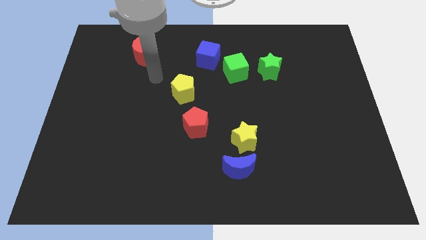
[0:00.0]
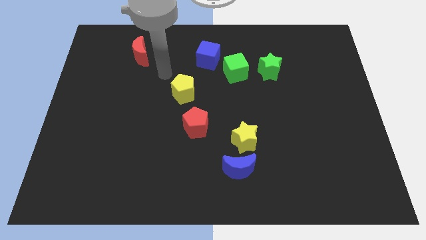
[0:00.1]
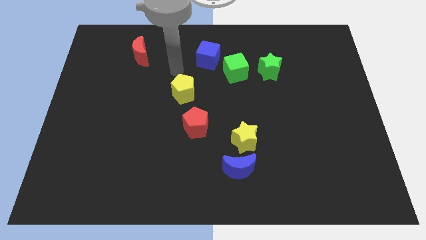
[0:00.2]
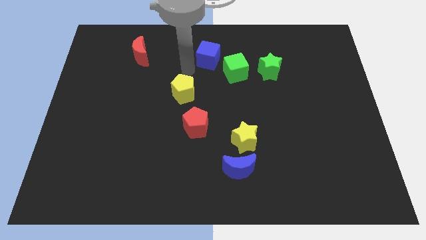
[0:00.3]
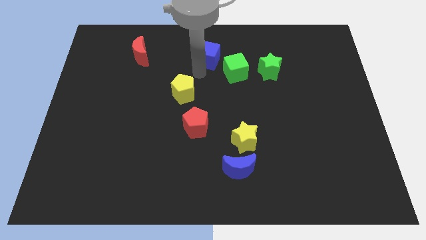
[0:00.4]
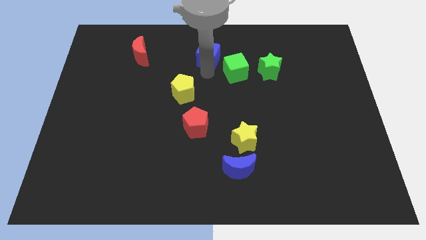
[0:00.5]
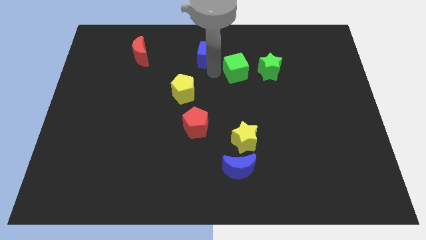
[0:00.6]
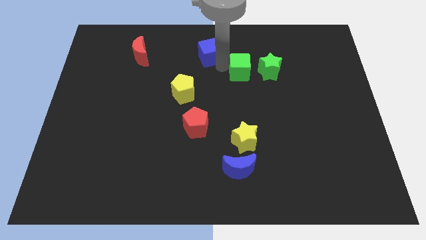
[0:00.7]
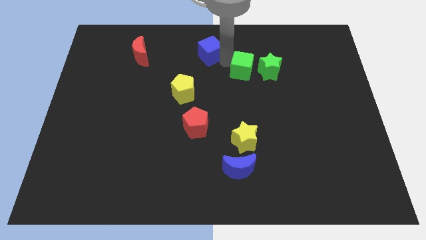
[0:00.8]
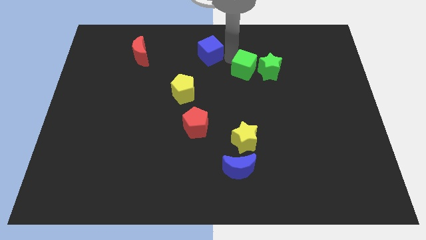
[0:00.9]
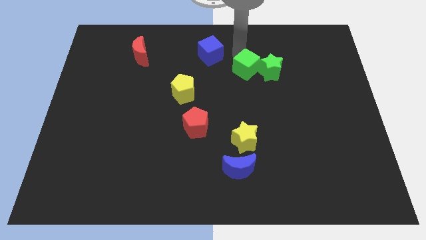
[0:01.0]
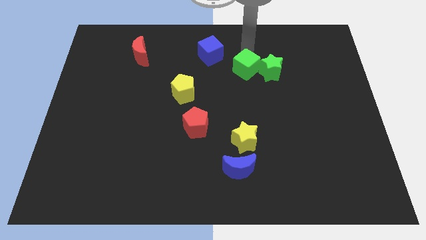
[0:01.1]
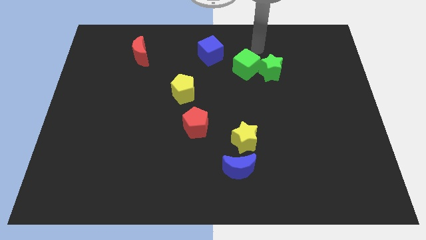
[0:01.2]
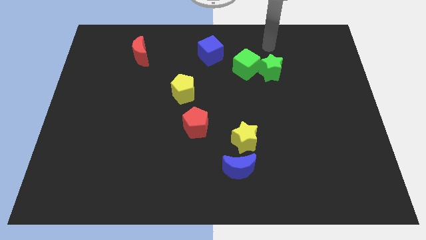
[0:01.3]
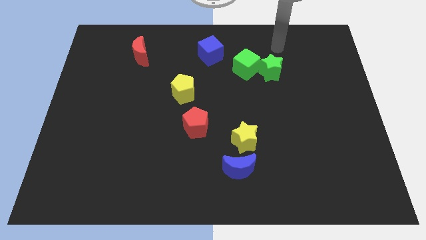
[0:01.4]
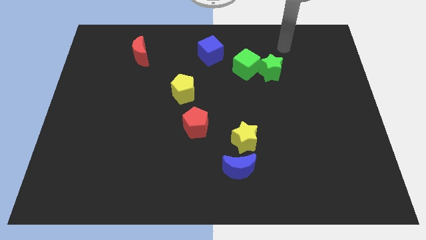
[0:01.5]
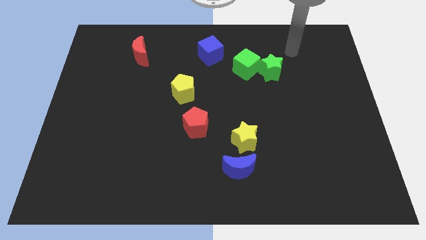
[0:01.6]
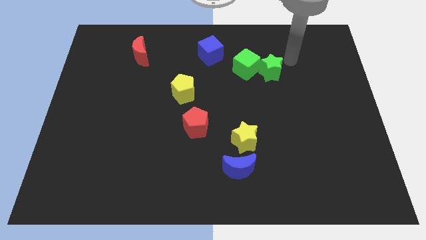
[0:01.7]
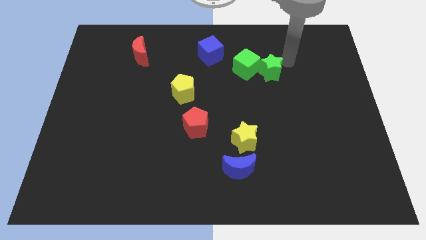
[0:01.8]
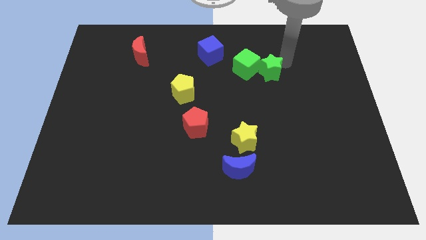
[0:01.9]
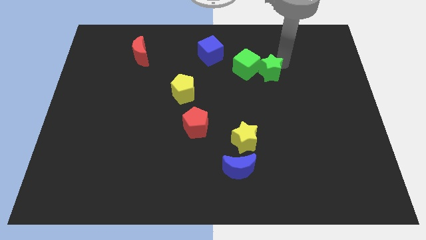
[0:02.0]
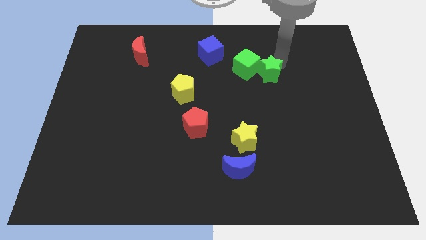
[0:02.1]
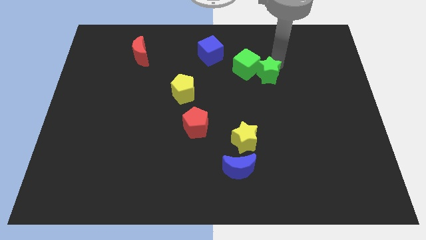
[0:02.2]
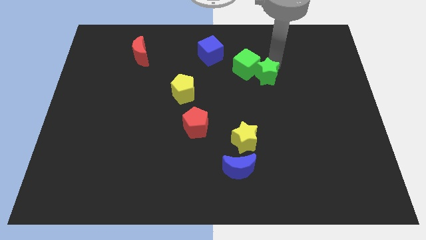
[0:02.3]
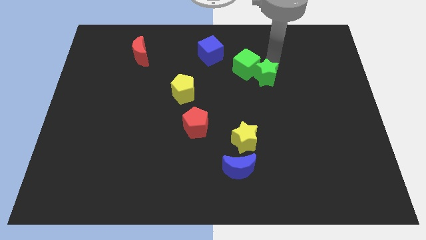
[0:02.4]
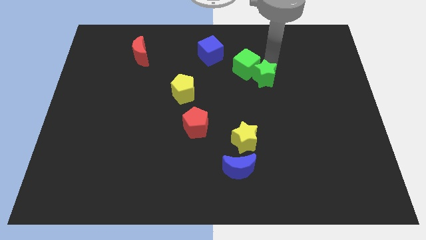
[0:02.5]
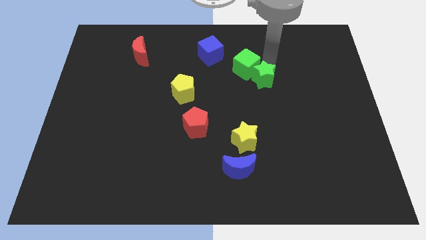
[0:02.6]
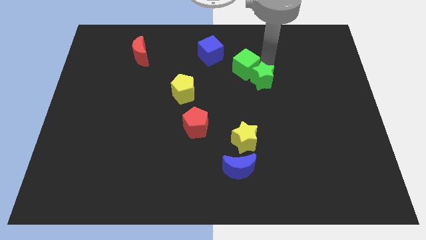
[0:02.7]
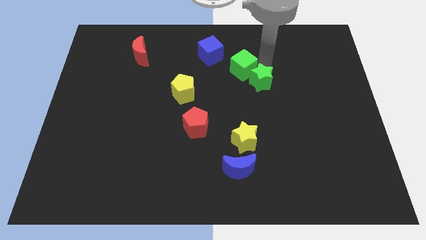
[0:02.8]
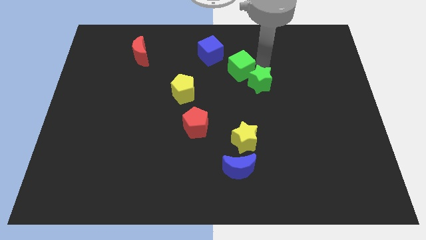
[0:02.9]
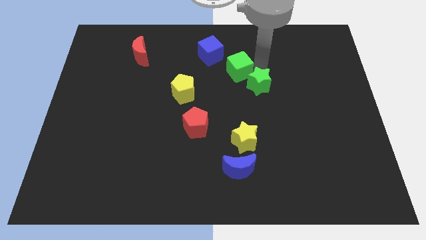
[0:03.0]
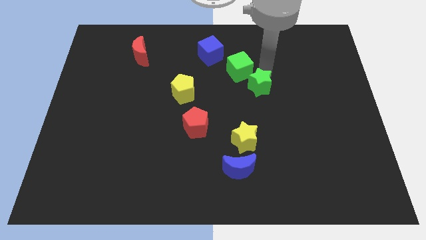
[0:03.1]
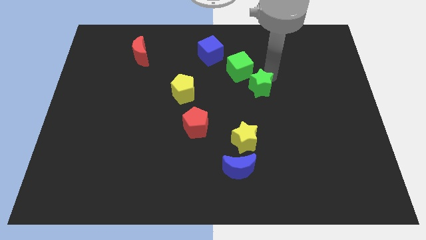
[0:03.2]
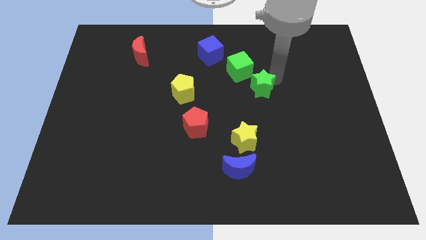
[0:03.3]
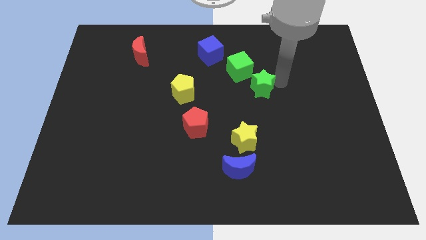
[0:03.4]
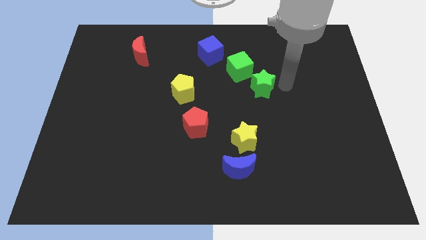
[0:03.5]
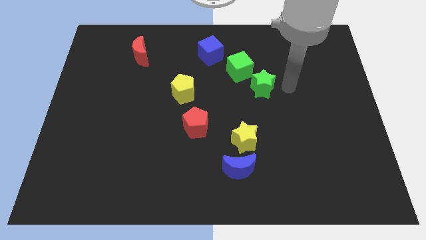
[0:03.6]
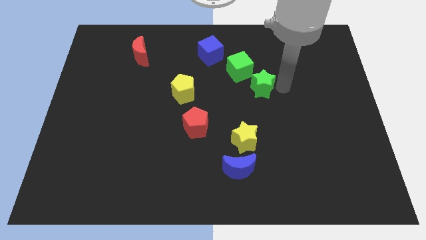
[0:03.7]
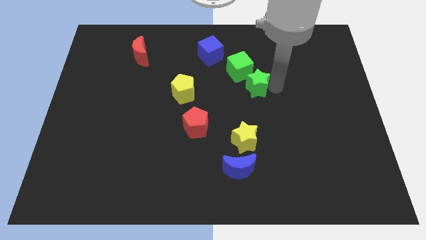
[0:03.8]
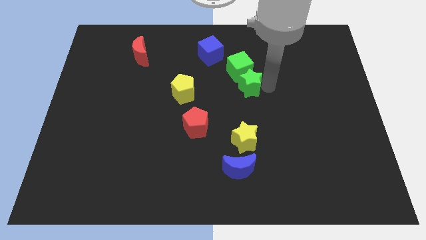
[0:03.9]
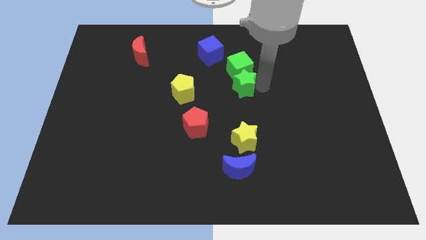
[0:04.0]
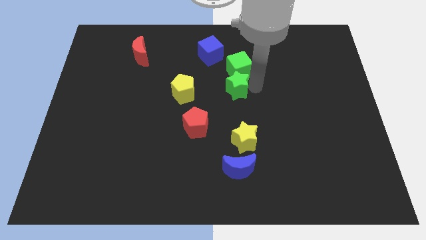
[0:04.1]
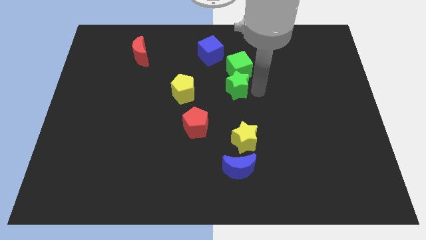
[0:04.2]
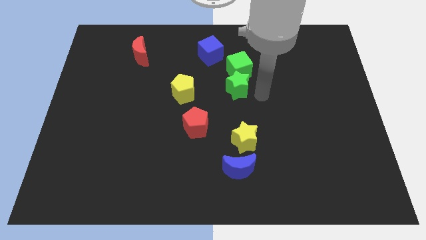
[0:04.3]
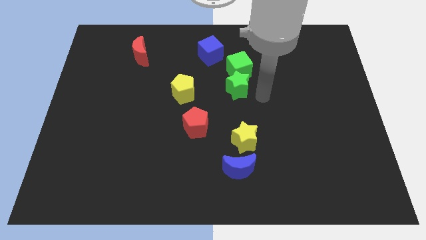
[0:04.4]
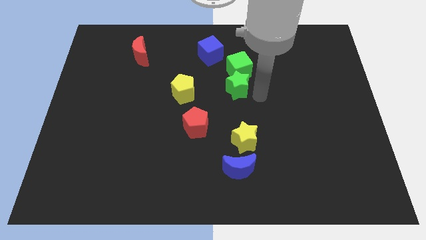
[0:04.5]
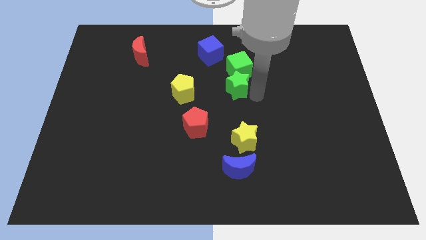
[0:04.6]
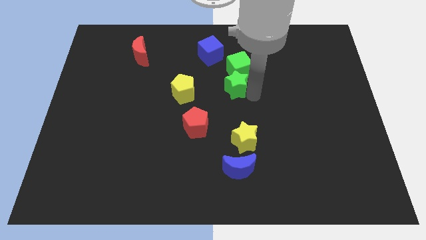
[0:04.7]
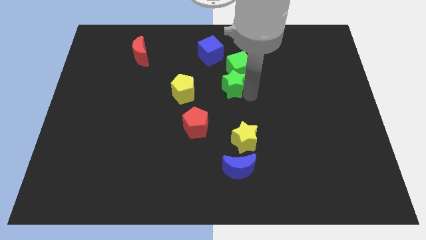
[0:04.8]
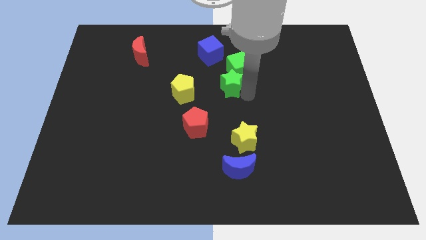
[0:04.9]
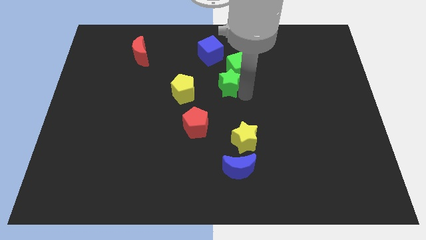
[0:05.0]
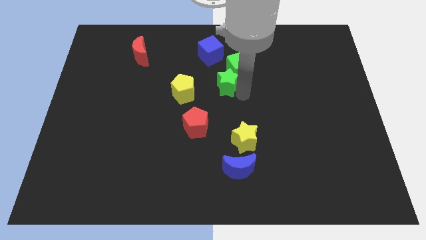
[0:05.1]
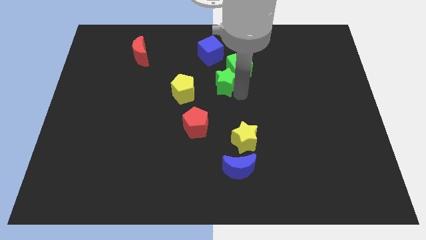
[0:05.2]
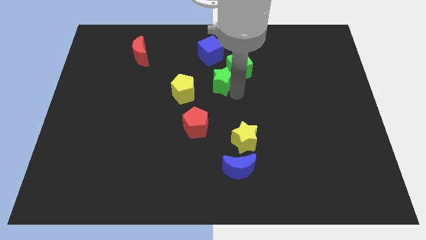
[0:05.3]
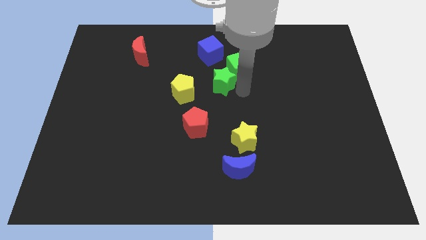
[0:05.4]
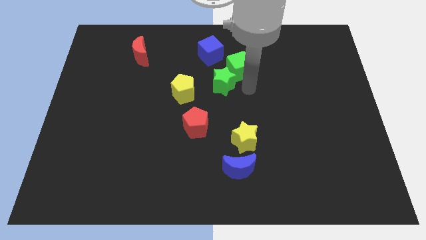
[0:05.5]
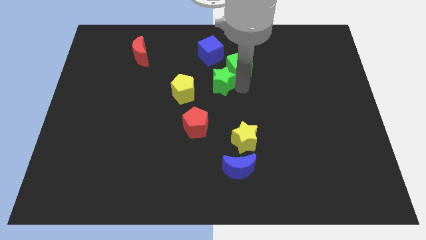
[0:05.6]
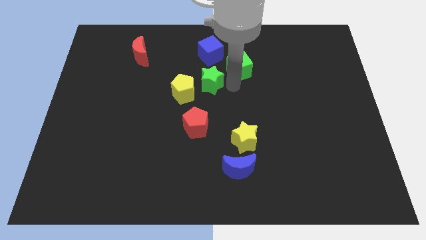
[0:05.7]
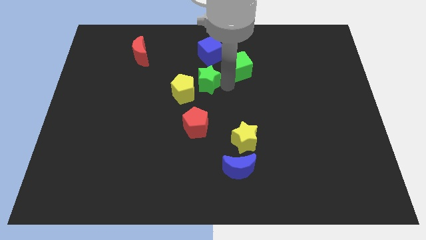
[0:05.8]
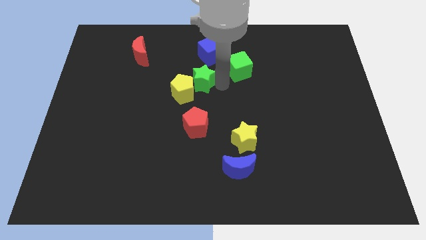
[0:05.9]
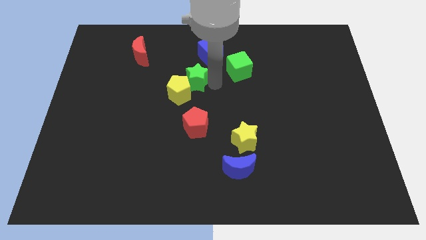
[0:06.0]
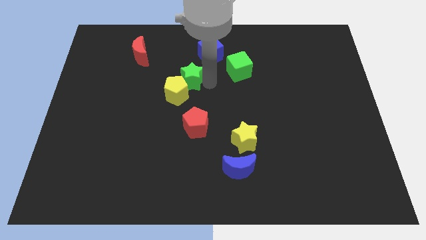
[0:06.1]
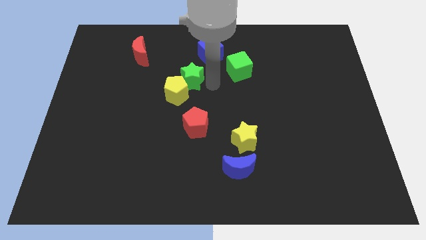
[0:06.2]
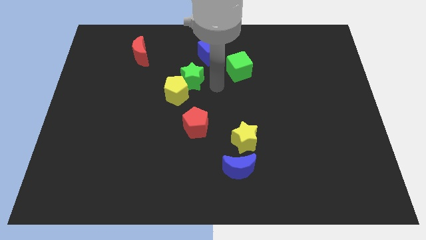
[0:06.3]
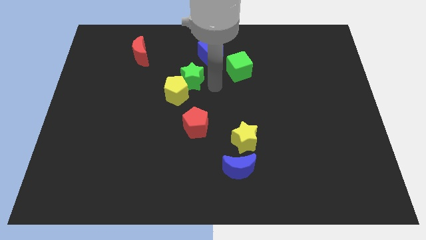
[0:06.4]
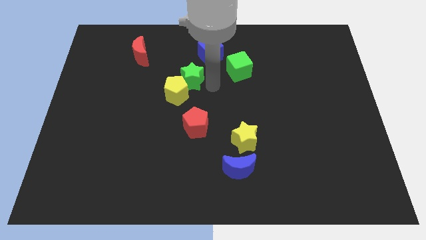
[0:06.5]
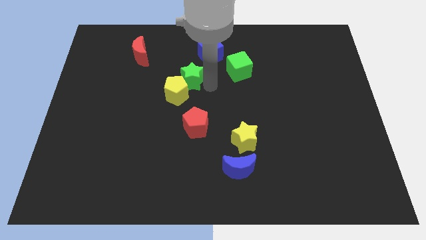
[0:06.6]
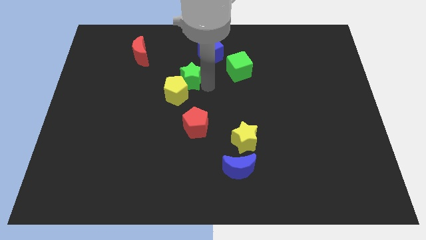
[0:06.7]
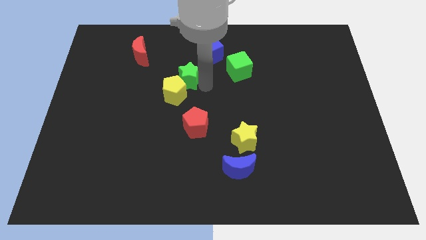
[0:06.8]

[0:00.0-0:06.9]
move the green star to the left

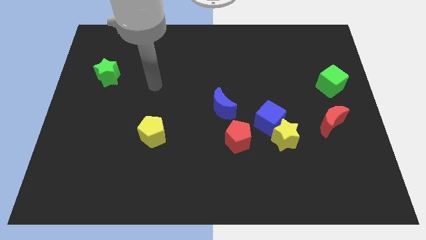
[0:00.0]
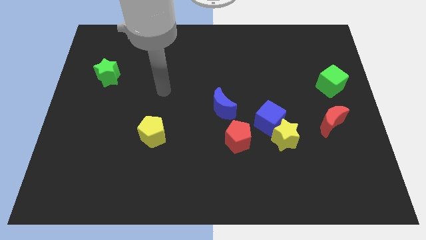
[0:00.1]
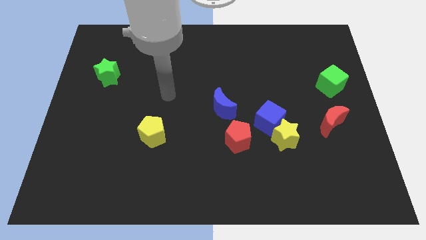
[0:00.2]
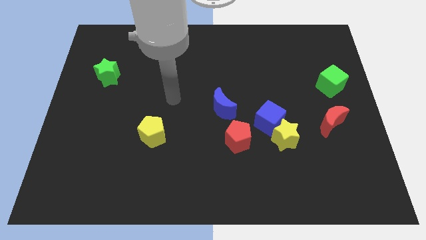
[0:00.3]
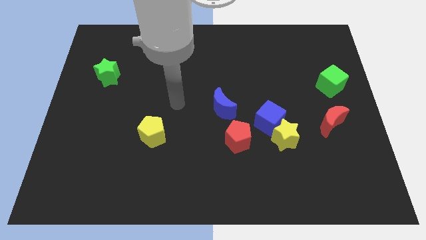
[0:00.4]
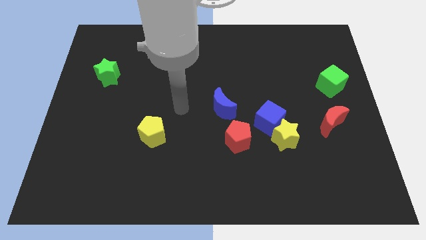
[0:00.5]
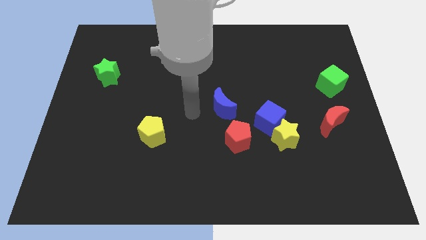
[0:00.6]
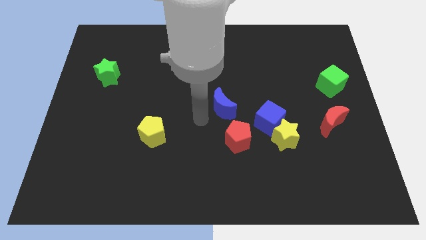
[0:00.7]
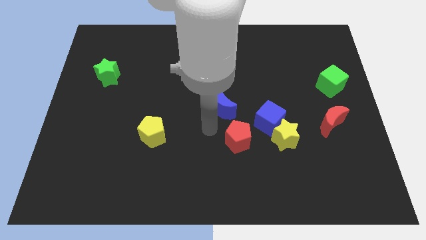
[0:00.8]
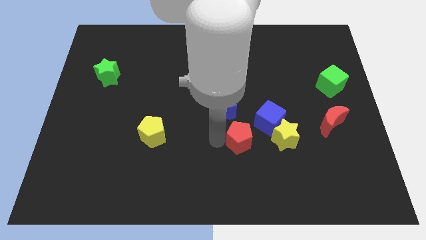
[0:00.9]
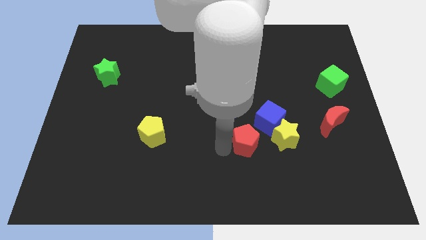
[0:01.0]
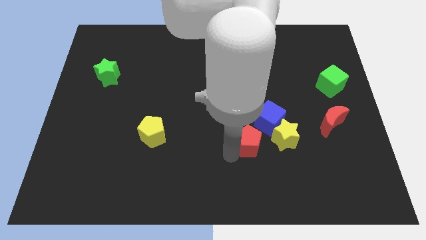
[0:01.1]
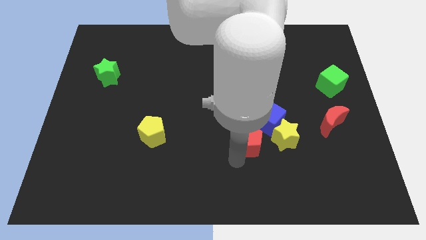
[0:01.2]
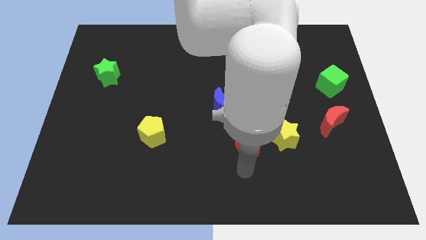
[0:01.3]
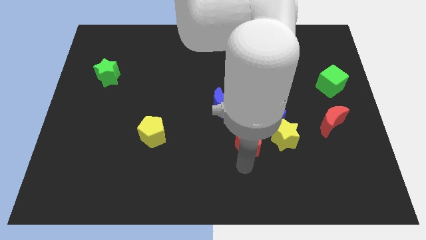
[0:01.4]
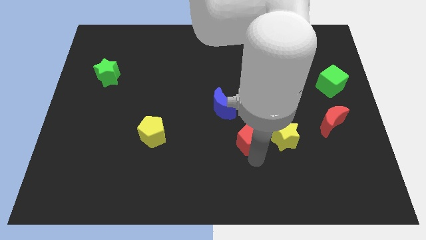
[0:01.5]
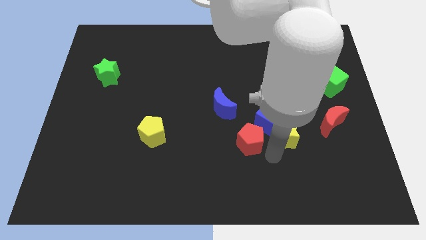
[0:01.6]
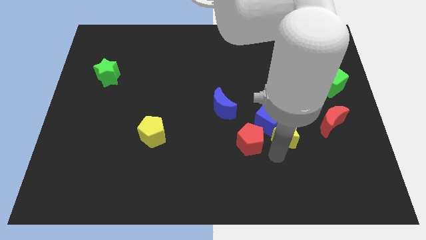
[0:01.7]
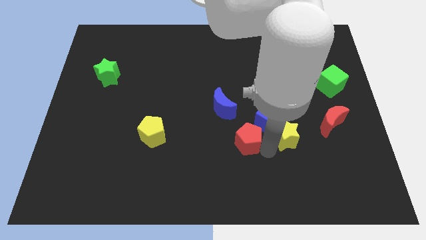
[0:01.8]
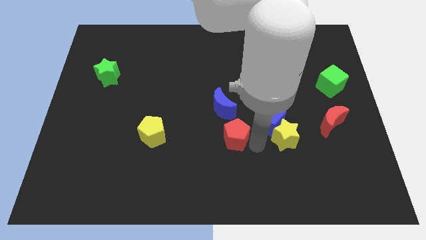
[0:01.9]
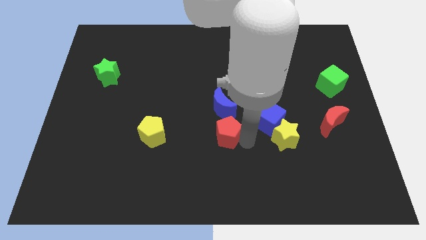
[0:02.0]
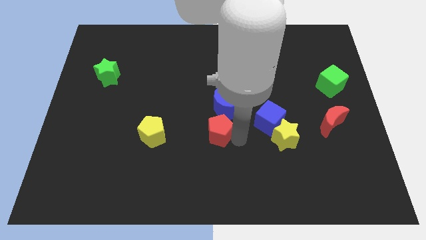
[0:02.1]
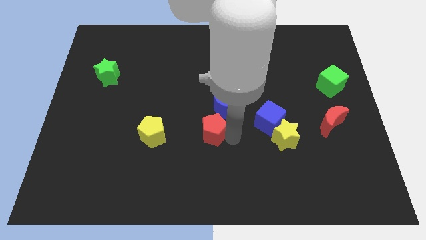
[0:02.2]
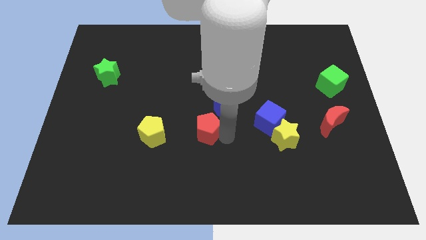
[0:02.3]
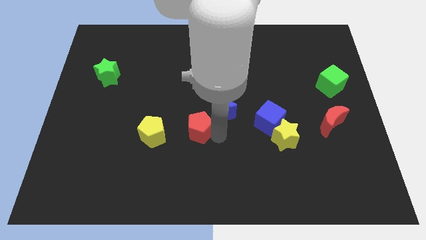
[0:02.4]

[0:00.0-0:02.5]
move the red pentagon somewhat up and left diagonally
